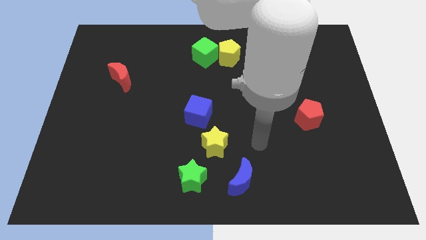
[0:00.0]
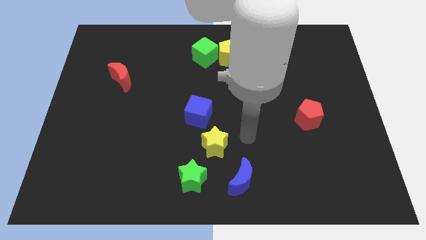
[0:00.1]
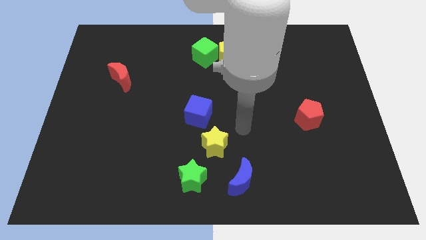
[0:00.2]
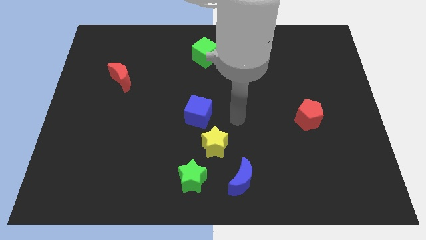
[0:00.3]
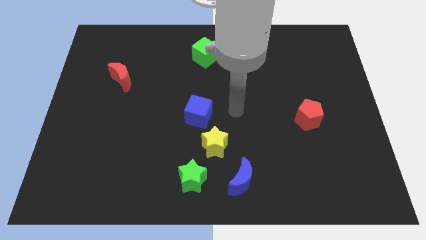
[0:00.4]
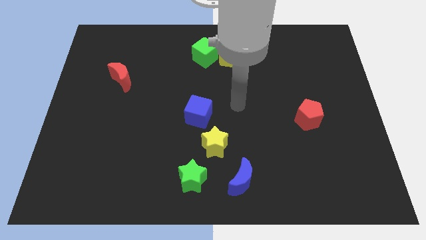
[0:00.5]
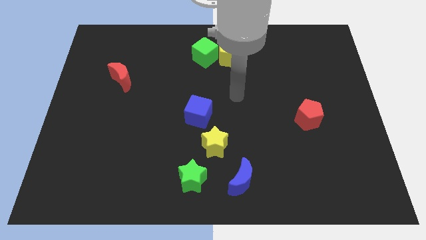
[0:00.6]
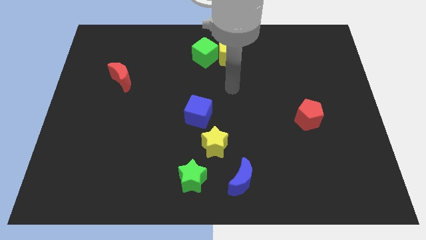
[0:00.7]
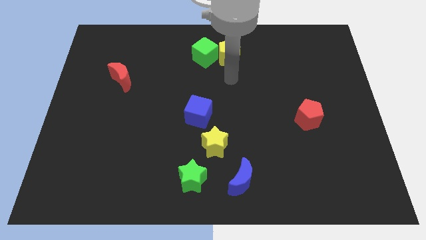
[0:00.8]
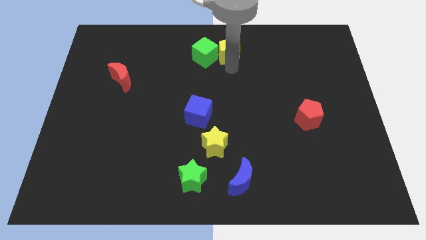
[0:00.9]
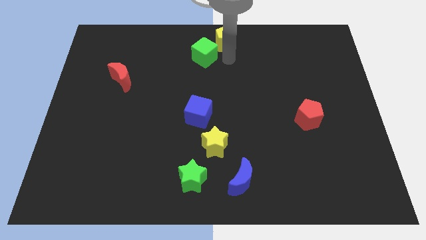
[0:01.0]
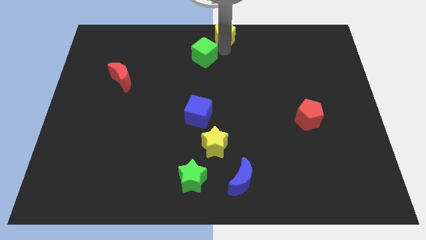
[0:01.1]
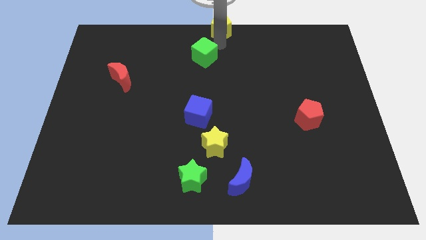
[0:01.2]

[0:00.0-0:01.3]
separate the green cube from the yellow pentagon

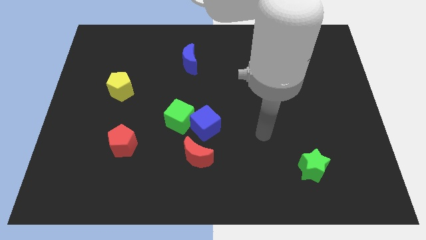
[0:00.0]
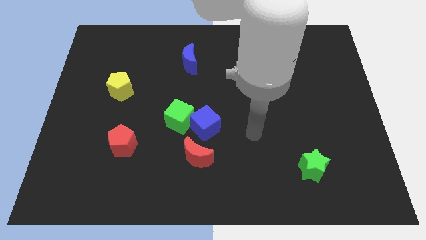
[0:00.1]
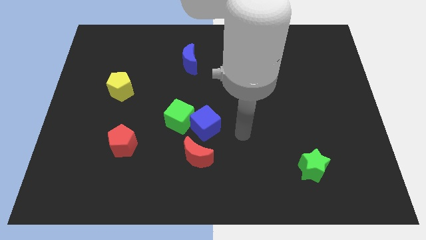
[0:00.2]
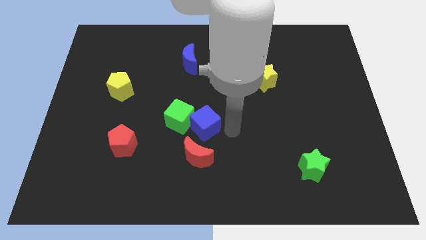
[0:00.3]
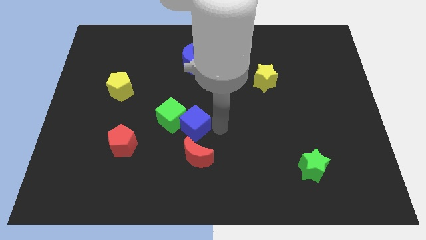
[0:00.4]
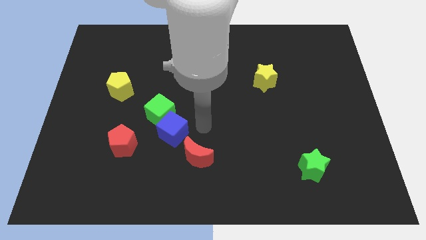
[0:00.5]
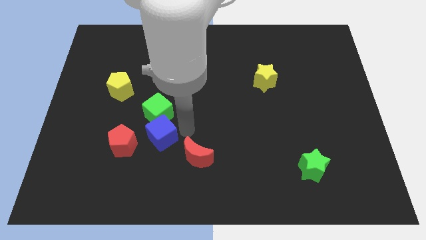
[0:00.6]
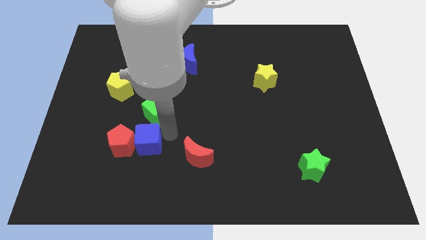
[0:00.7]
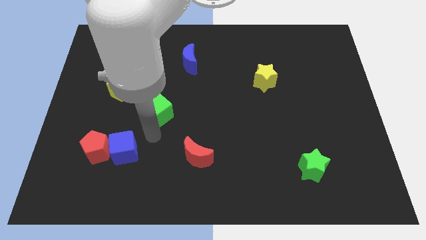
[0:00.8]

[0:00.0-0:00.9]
pull the green cube apart from the blue cube

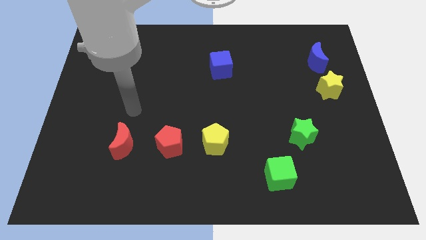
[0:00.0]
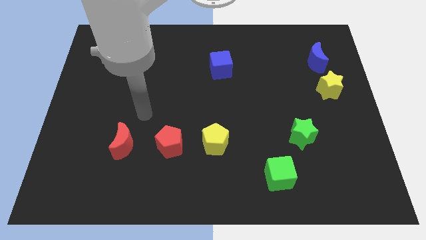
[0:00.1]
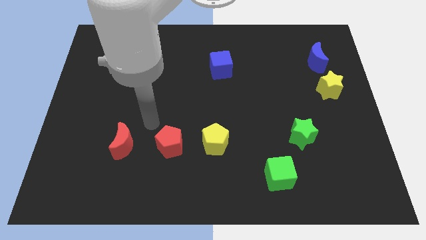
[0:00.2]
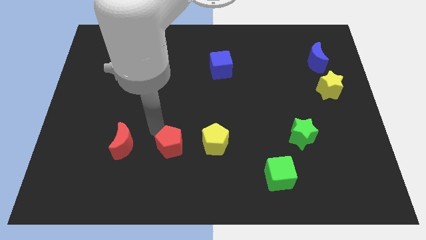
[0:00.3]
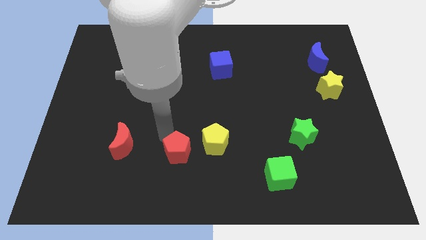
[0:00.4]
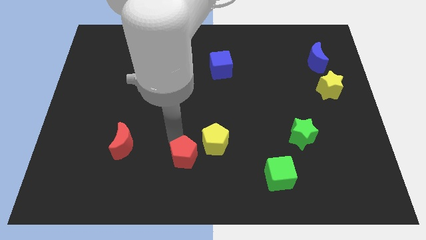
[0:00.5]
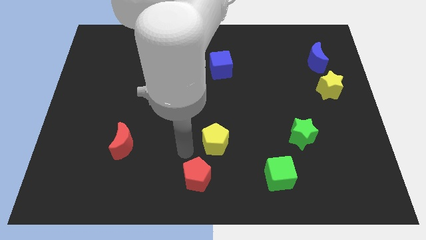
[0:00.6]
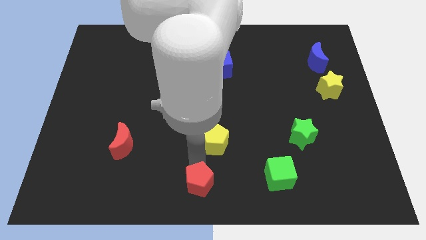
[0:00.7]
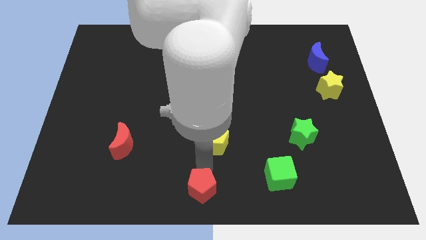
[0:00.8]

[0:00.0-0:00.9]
separate the yellow pentagon from the red pentagon

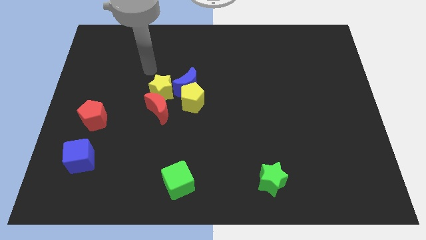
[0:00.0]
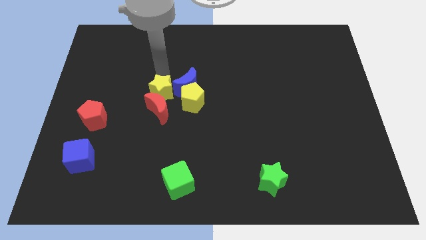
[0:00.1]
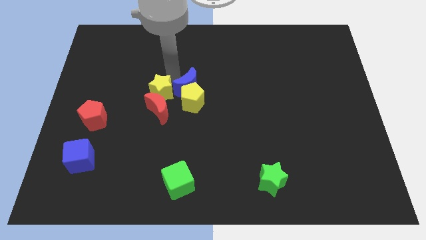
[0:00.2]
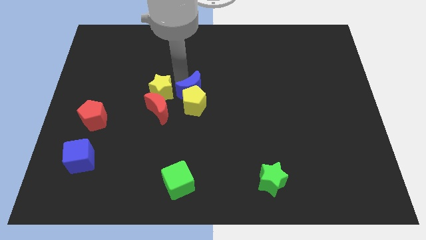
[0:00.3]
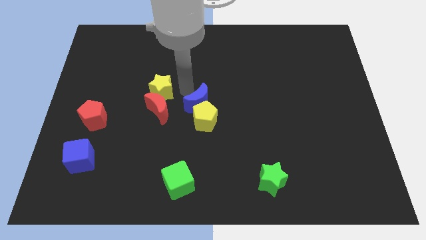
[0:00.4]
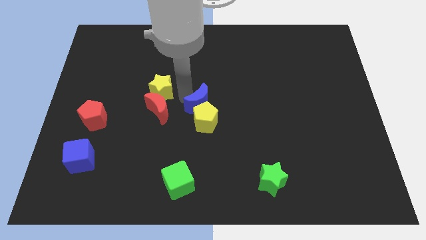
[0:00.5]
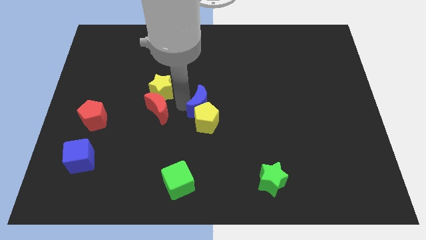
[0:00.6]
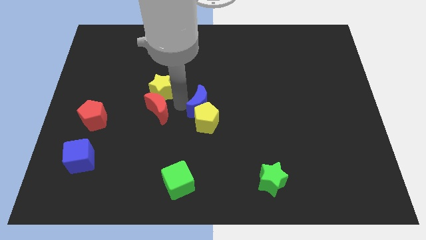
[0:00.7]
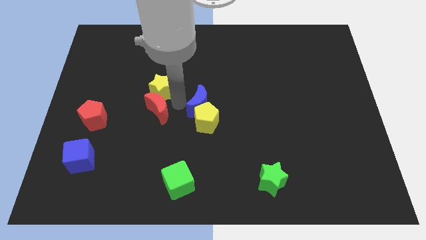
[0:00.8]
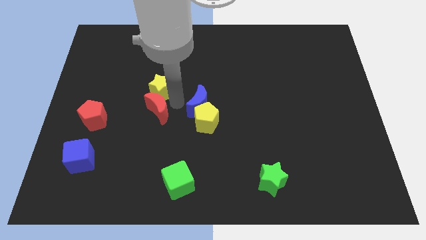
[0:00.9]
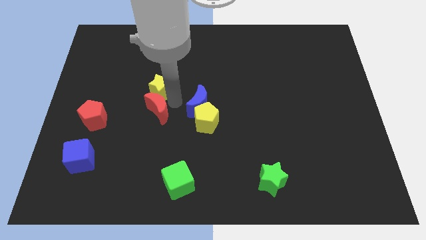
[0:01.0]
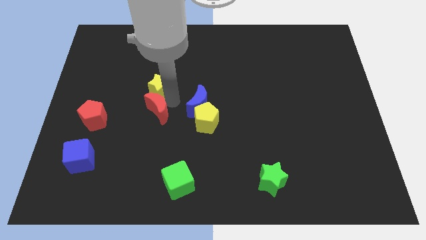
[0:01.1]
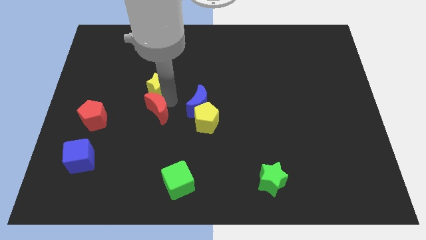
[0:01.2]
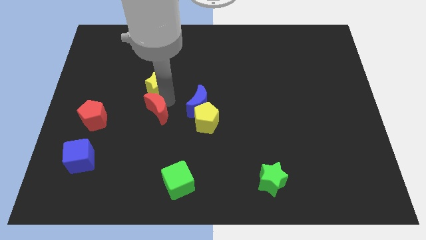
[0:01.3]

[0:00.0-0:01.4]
separate the yellow star from the group of blocks

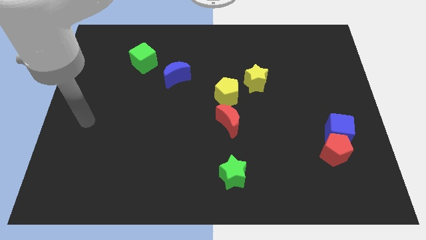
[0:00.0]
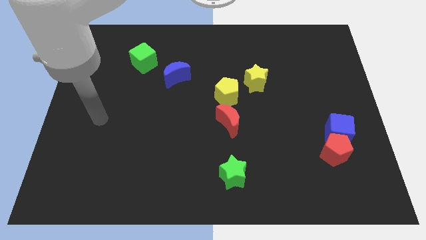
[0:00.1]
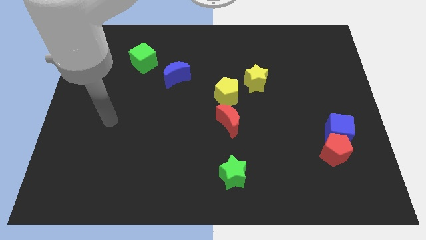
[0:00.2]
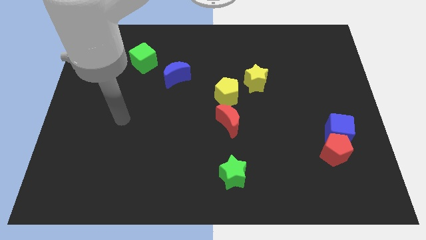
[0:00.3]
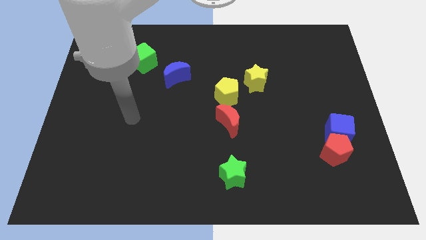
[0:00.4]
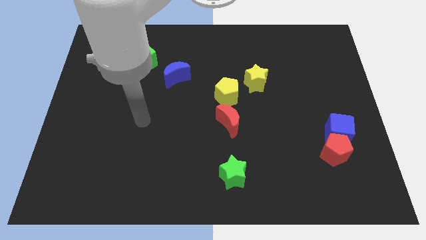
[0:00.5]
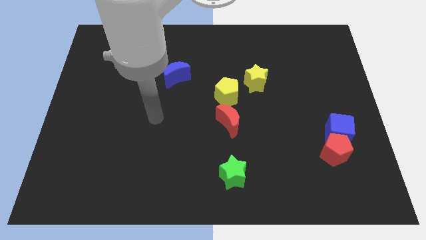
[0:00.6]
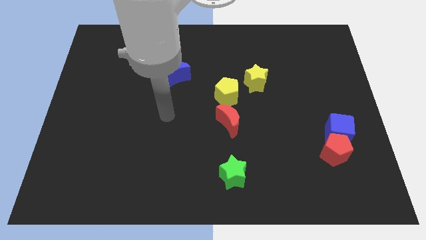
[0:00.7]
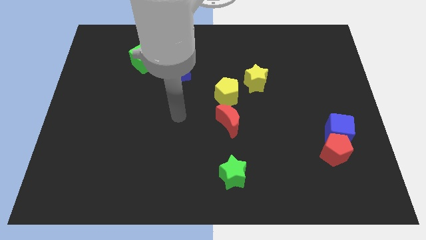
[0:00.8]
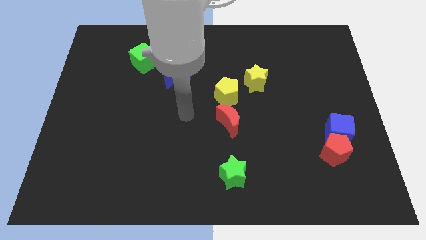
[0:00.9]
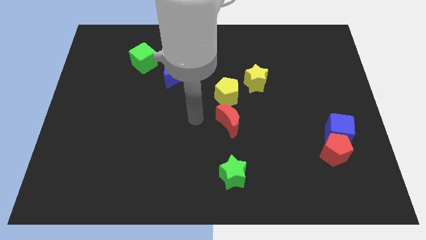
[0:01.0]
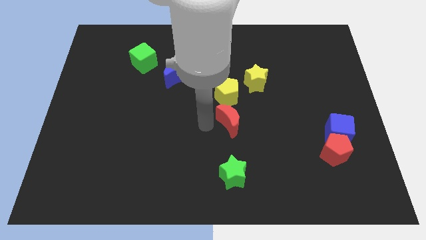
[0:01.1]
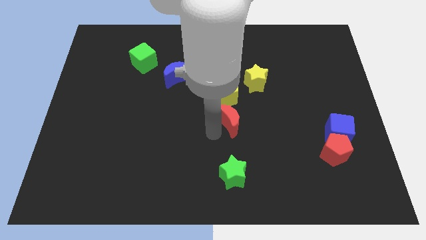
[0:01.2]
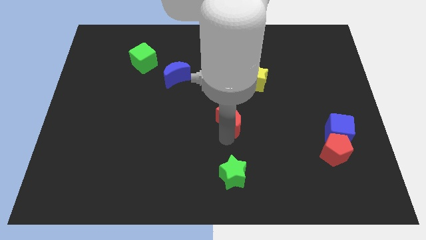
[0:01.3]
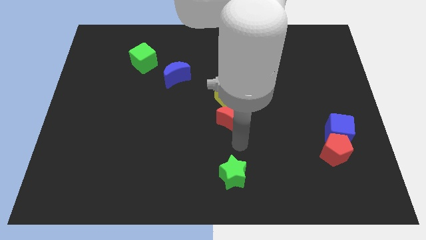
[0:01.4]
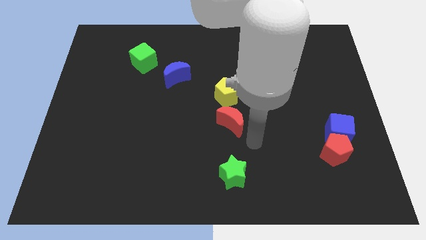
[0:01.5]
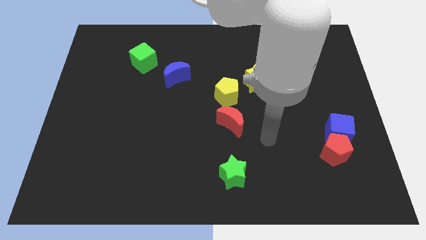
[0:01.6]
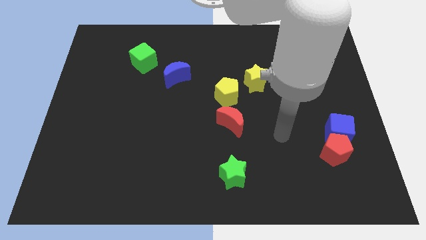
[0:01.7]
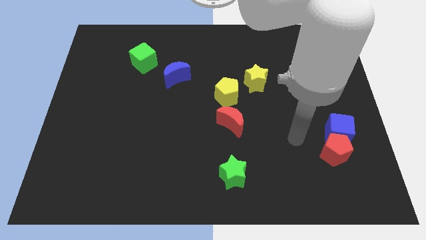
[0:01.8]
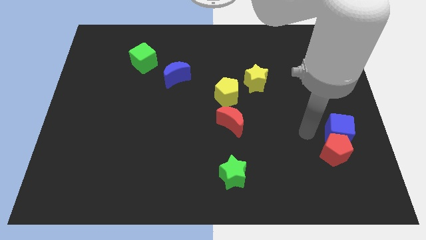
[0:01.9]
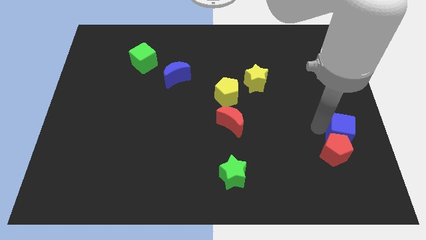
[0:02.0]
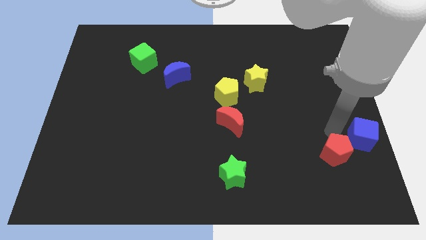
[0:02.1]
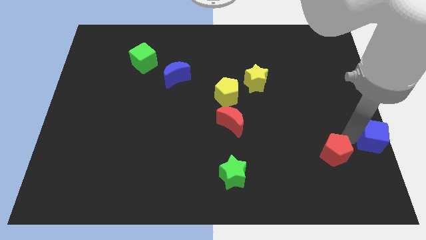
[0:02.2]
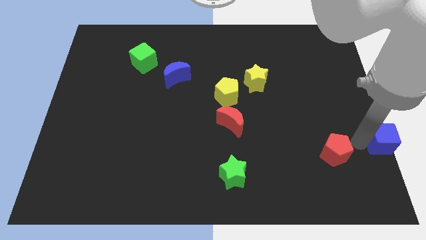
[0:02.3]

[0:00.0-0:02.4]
separate the red pentagon from the blue cube

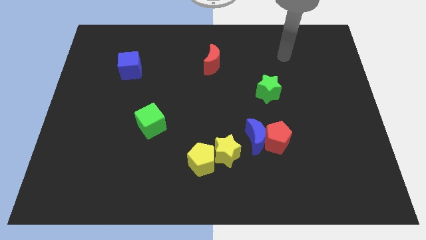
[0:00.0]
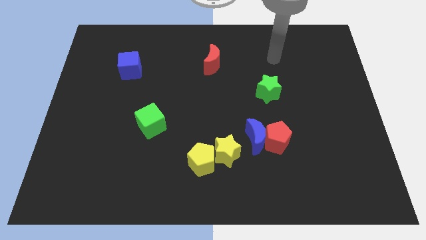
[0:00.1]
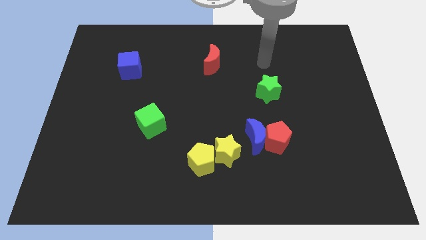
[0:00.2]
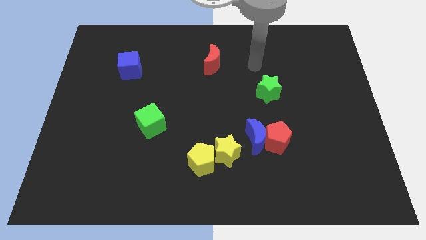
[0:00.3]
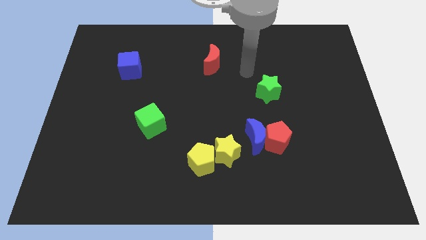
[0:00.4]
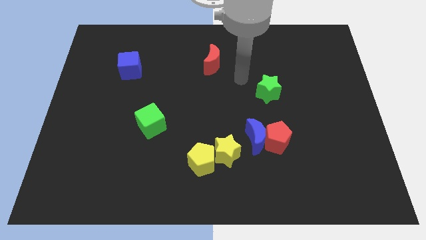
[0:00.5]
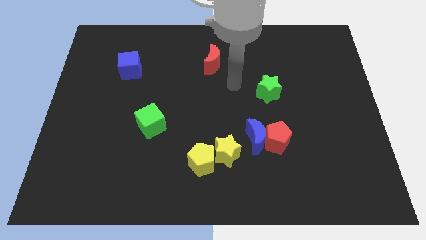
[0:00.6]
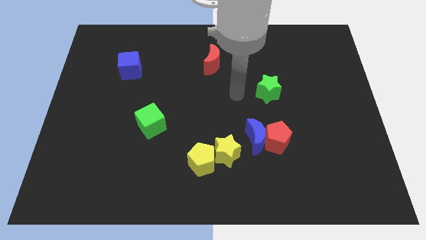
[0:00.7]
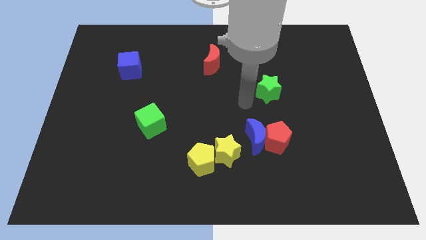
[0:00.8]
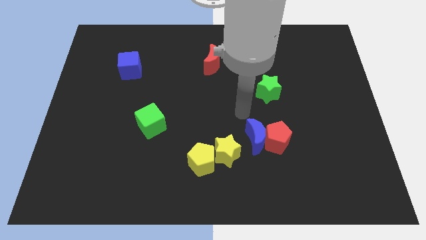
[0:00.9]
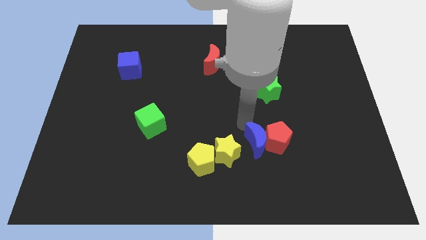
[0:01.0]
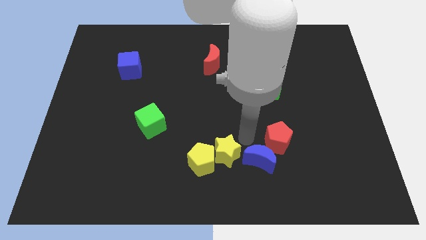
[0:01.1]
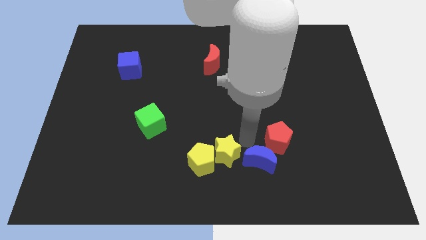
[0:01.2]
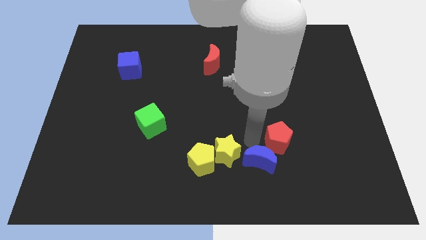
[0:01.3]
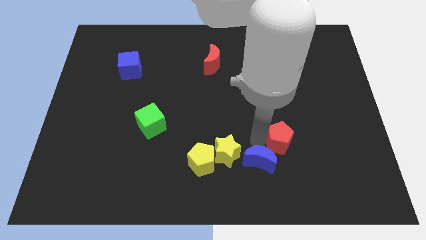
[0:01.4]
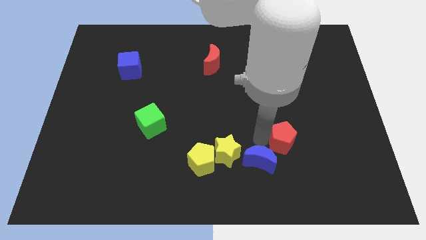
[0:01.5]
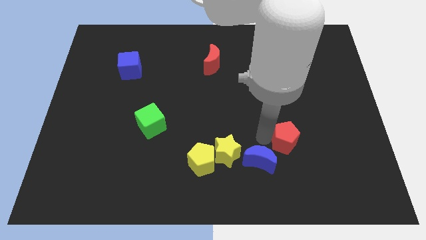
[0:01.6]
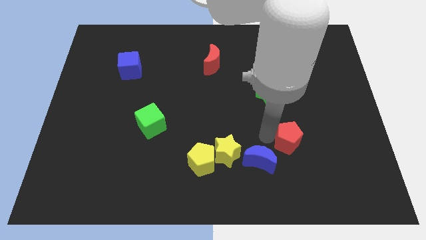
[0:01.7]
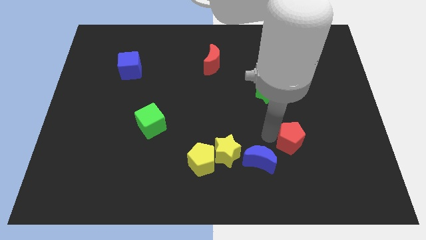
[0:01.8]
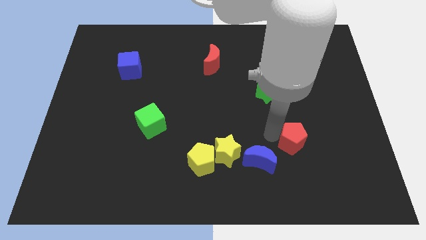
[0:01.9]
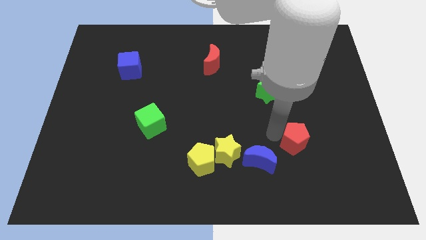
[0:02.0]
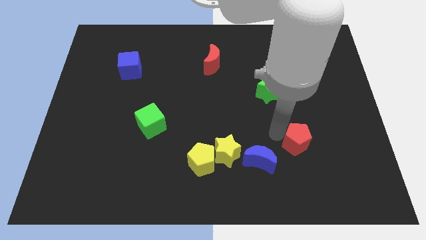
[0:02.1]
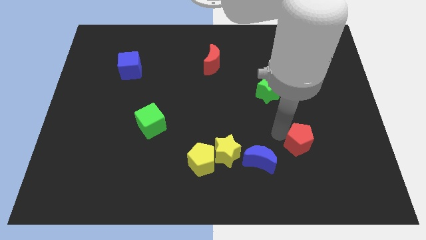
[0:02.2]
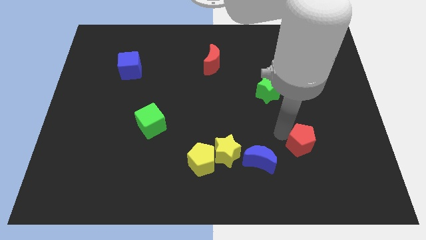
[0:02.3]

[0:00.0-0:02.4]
move the red pentagon away from the blue moon

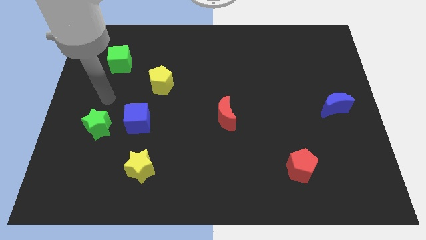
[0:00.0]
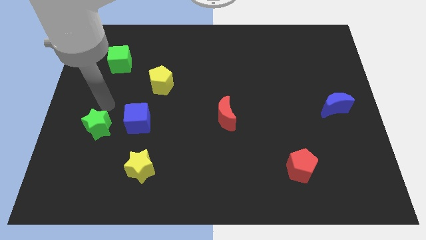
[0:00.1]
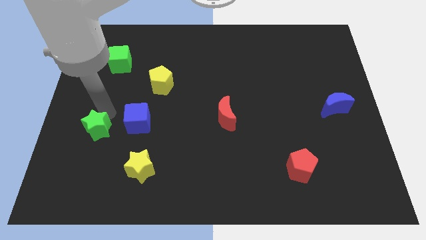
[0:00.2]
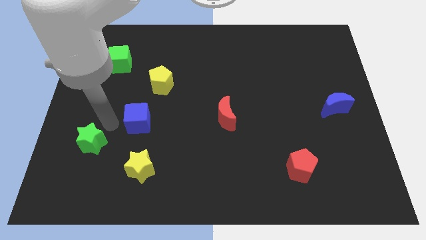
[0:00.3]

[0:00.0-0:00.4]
separate the blue cube from the green star
